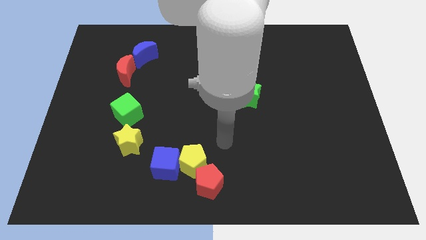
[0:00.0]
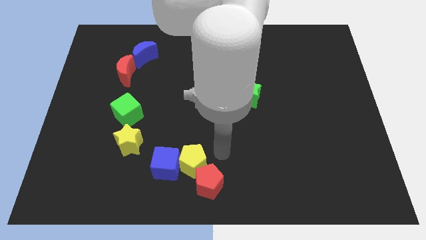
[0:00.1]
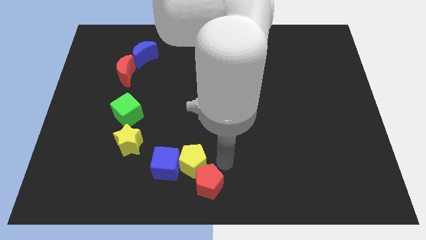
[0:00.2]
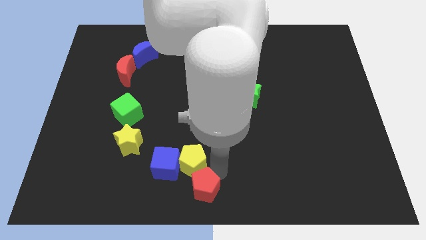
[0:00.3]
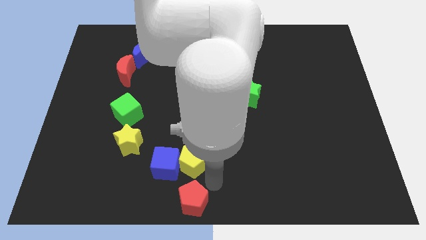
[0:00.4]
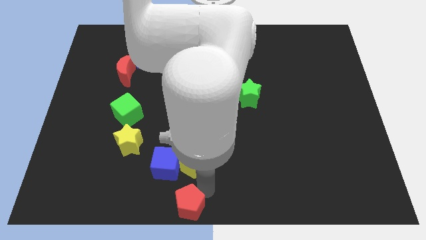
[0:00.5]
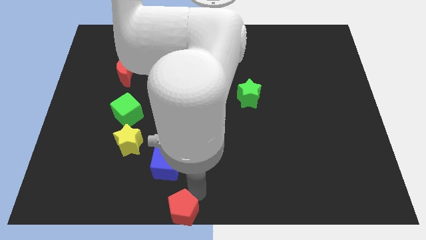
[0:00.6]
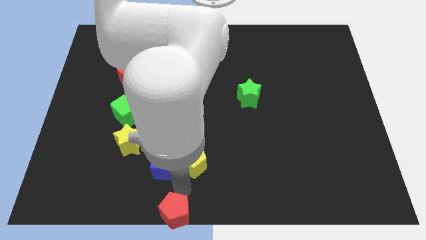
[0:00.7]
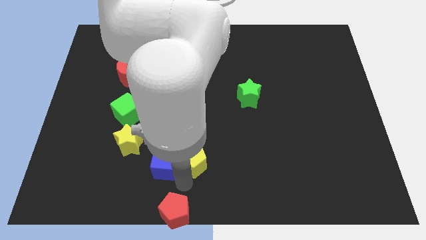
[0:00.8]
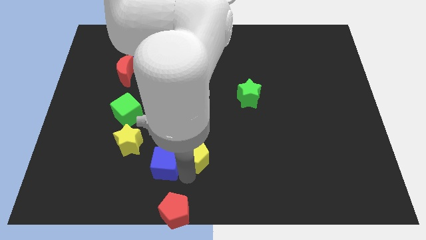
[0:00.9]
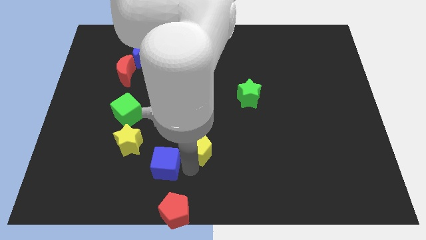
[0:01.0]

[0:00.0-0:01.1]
move the yellow pentagon away from the blue cube and red pentagon

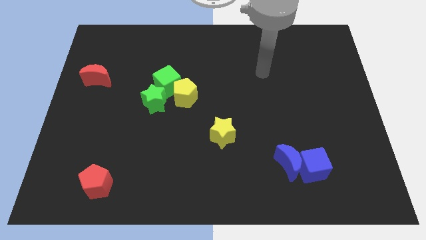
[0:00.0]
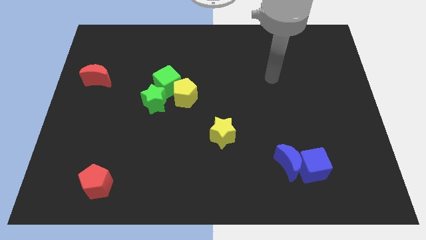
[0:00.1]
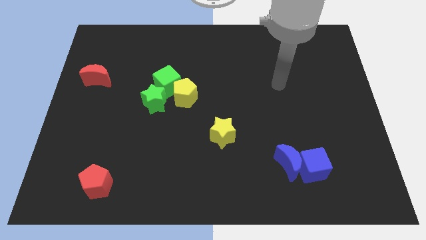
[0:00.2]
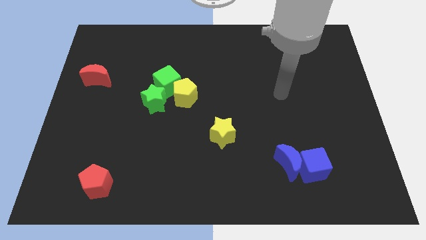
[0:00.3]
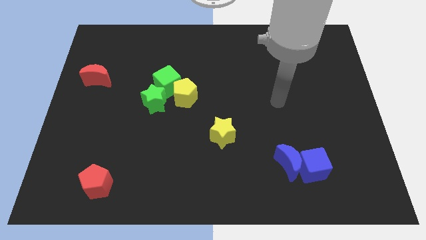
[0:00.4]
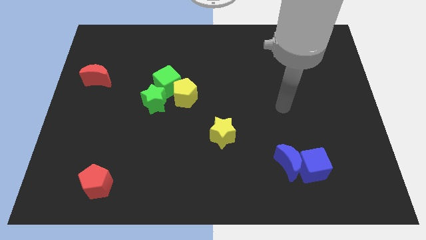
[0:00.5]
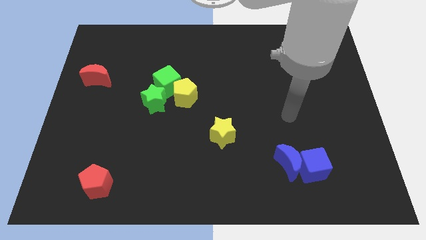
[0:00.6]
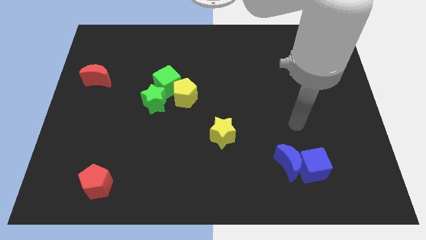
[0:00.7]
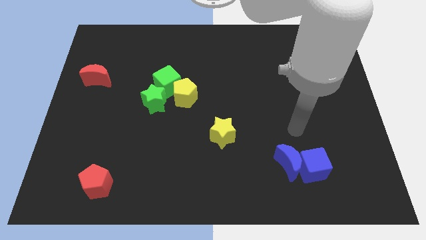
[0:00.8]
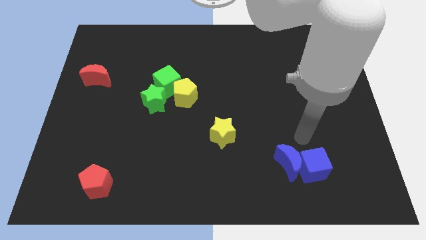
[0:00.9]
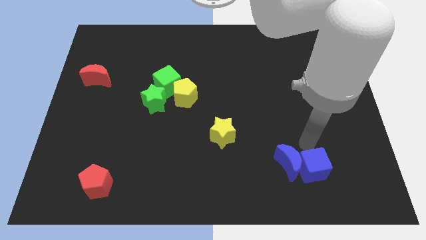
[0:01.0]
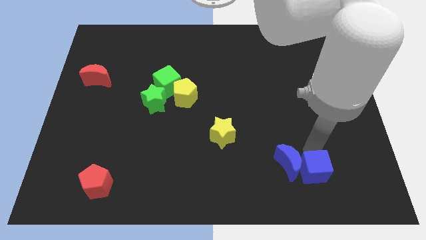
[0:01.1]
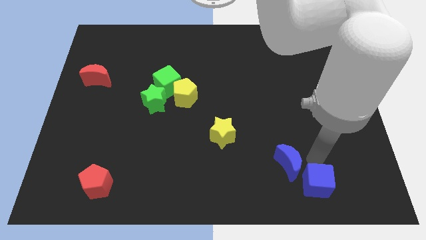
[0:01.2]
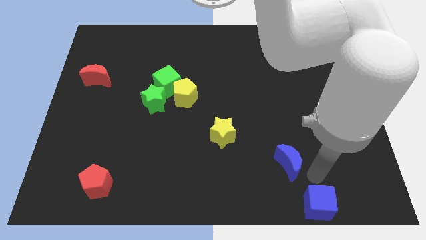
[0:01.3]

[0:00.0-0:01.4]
move the blue moon away from the blue cube

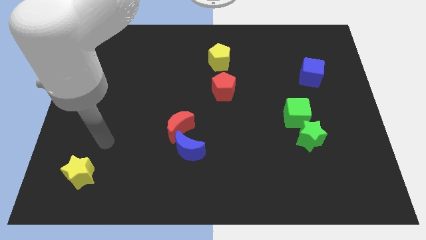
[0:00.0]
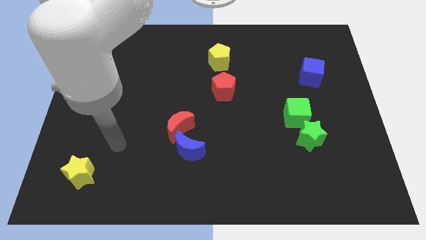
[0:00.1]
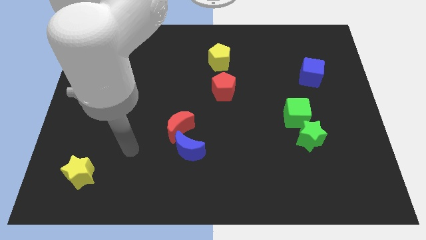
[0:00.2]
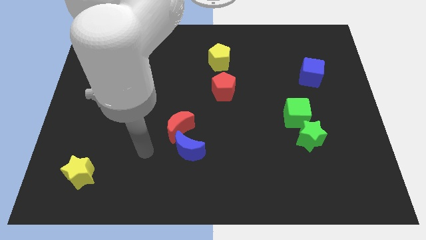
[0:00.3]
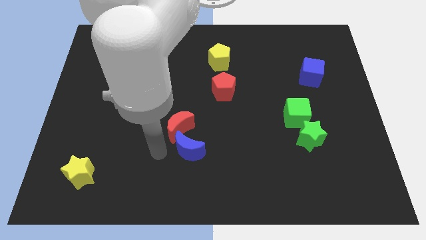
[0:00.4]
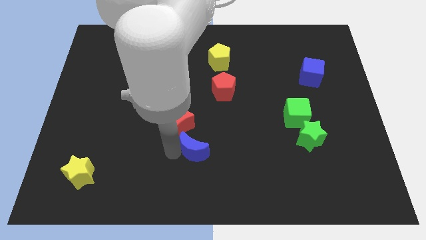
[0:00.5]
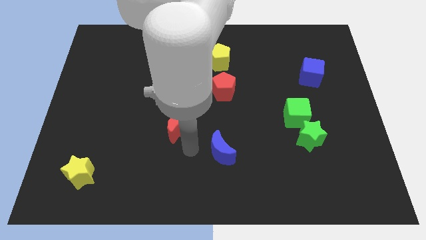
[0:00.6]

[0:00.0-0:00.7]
separate the red moon from the blue moon

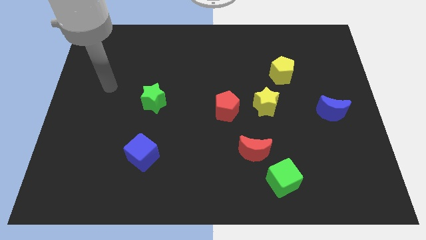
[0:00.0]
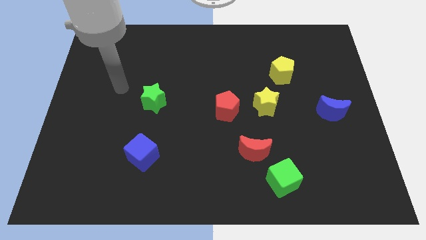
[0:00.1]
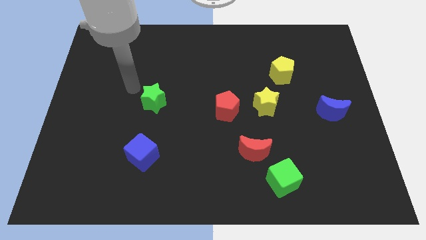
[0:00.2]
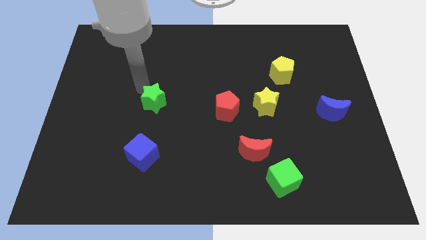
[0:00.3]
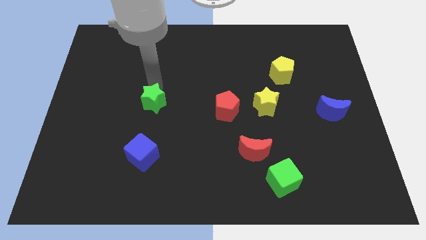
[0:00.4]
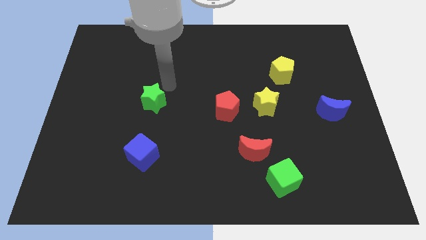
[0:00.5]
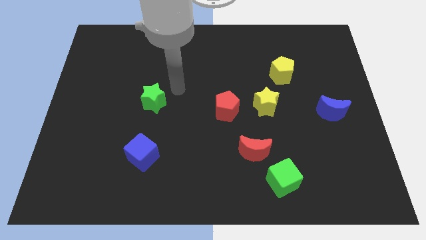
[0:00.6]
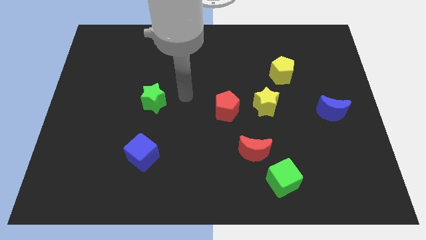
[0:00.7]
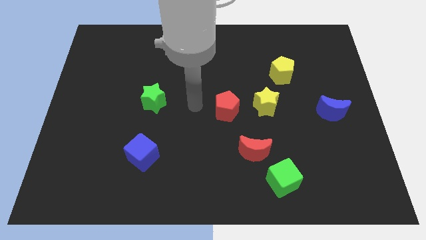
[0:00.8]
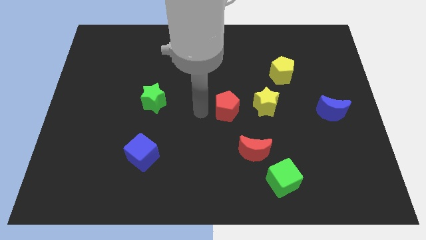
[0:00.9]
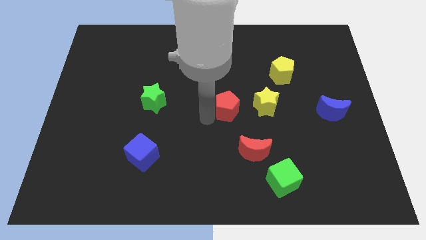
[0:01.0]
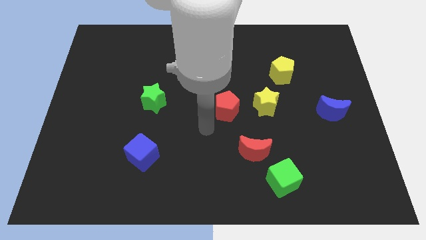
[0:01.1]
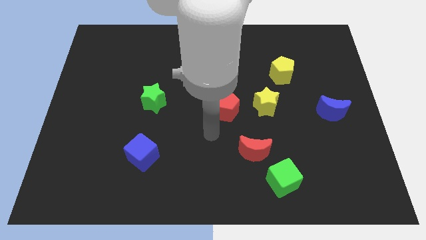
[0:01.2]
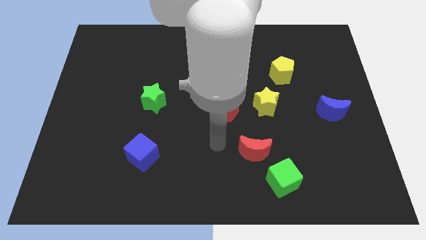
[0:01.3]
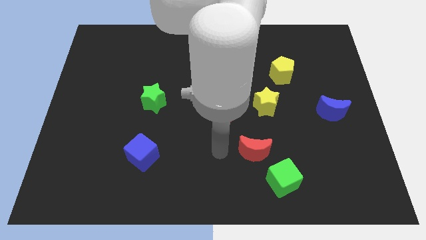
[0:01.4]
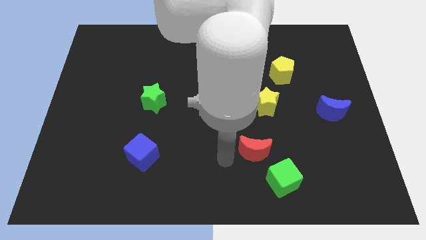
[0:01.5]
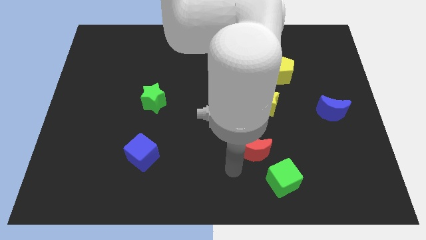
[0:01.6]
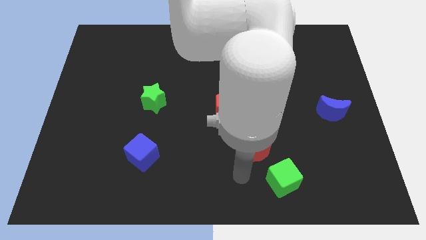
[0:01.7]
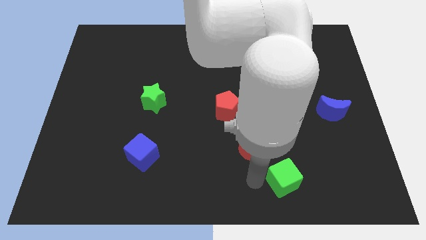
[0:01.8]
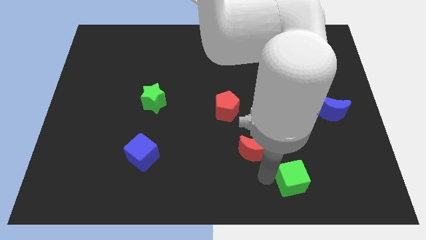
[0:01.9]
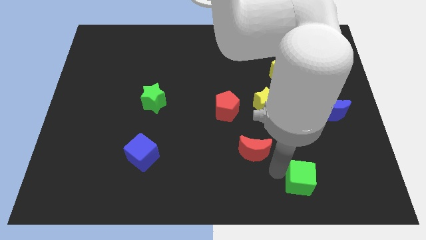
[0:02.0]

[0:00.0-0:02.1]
pull the red moon apart from the green cube

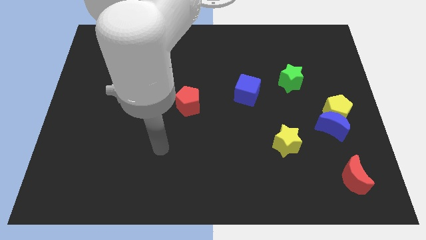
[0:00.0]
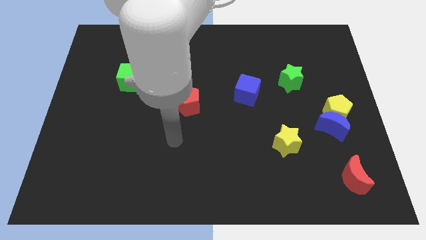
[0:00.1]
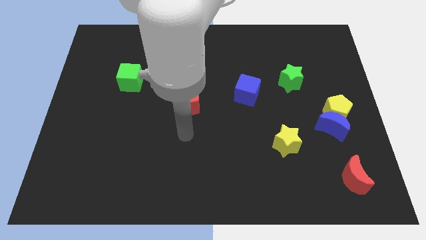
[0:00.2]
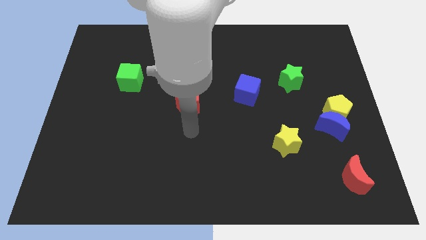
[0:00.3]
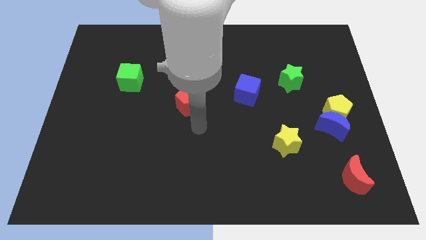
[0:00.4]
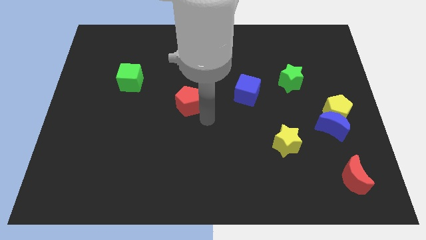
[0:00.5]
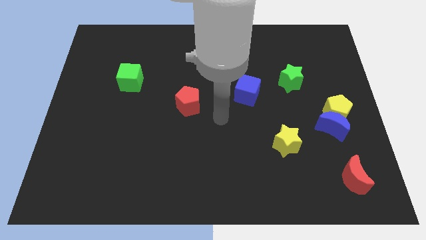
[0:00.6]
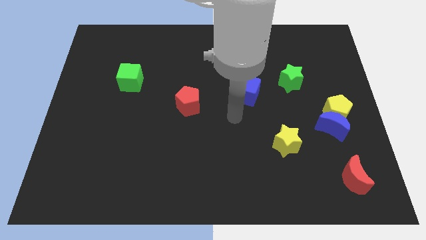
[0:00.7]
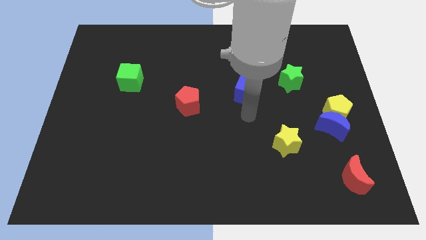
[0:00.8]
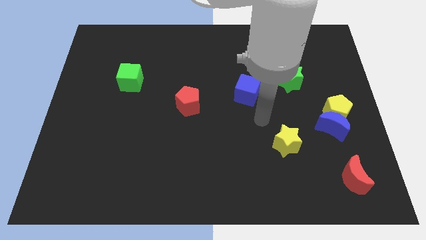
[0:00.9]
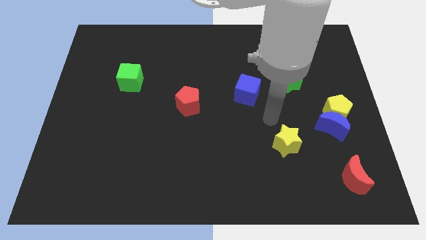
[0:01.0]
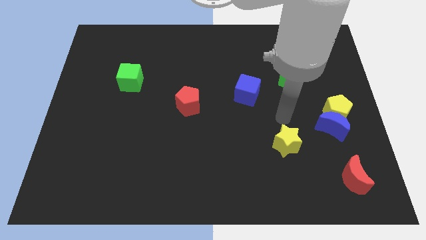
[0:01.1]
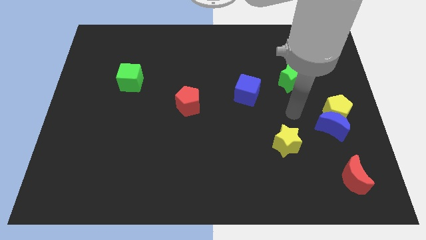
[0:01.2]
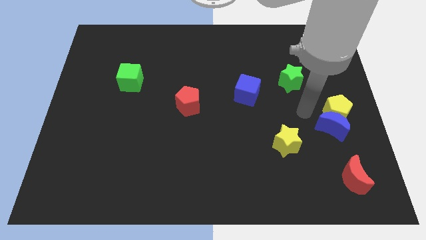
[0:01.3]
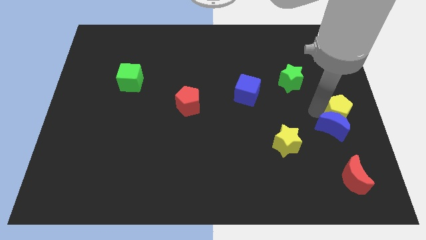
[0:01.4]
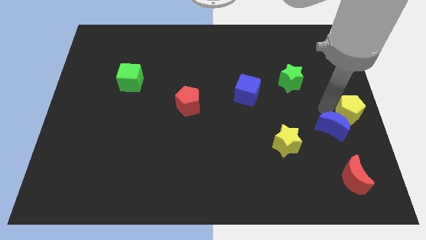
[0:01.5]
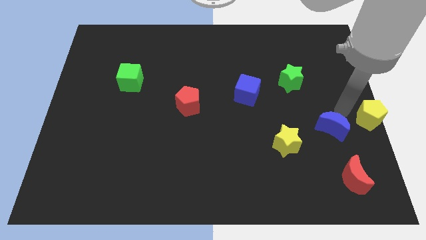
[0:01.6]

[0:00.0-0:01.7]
separate the blue moon from the yellow pentagon

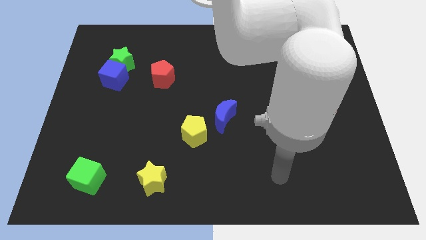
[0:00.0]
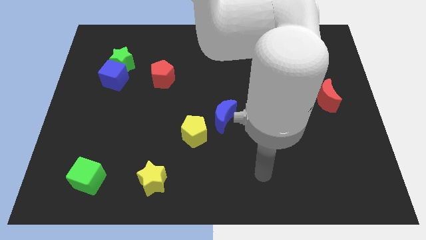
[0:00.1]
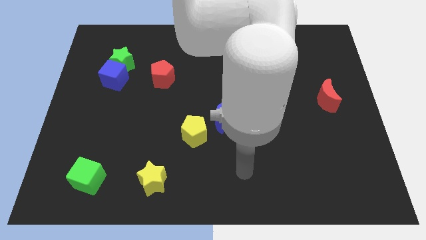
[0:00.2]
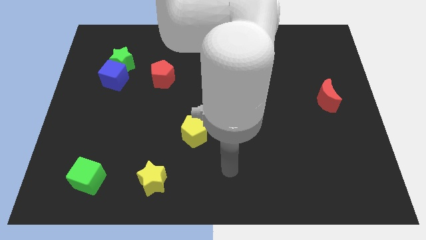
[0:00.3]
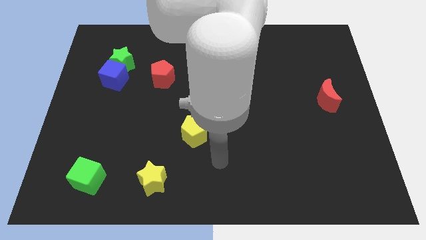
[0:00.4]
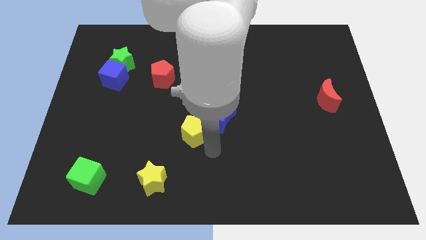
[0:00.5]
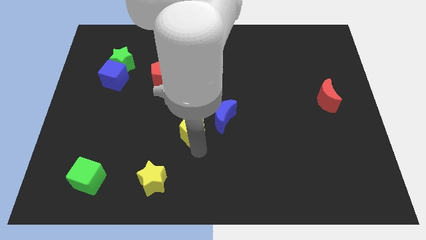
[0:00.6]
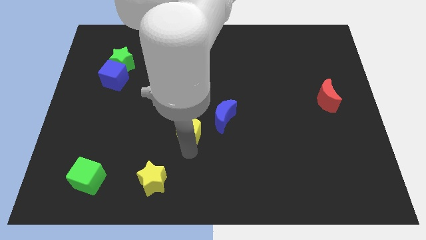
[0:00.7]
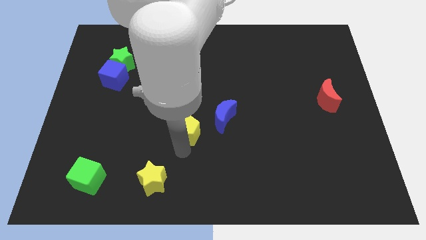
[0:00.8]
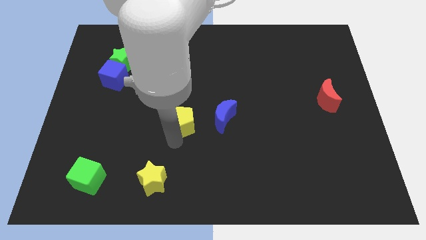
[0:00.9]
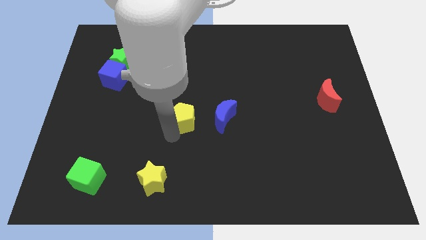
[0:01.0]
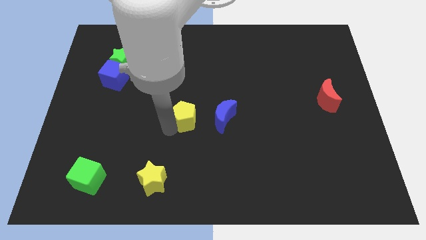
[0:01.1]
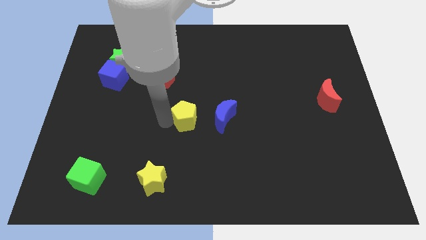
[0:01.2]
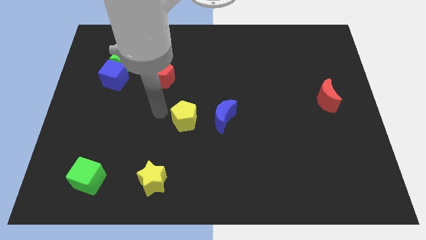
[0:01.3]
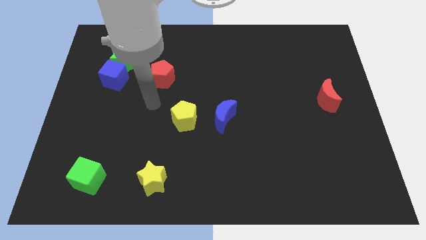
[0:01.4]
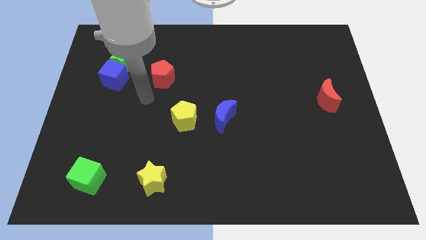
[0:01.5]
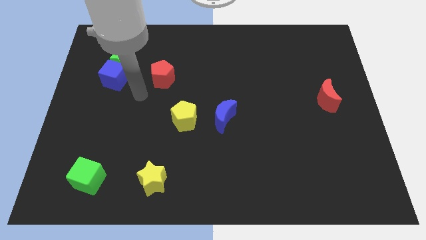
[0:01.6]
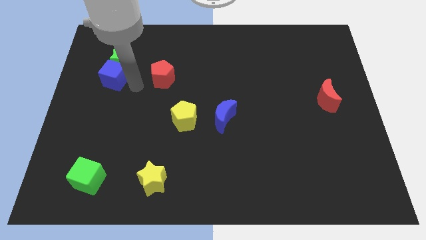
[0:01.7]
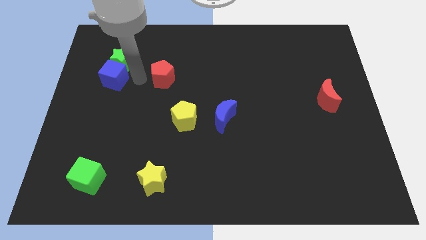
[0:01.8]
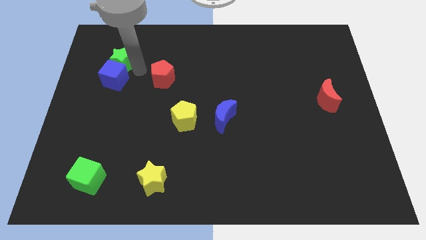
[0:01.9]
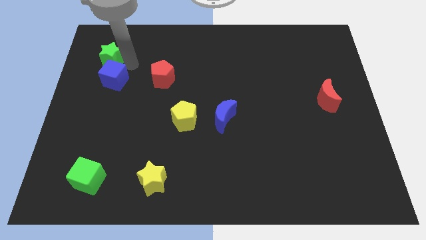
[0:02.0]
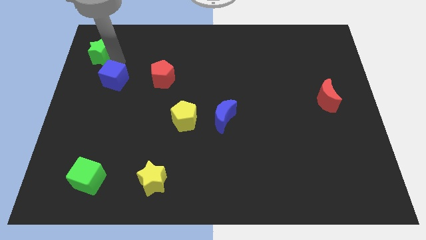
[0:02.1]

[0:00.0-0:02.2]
move the blue cube away from the green star
